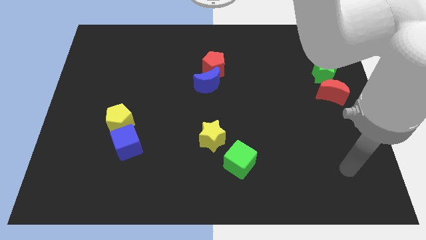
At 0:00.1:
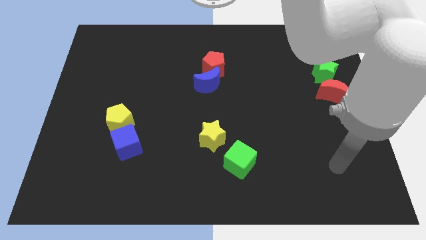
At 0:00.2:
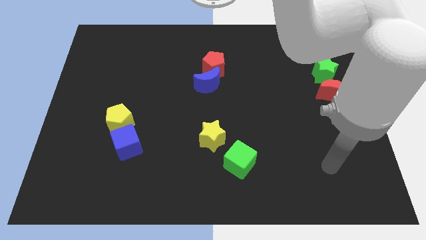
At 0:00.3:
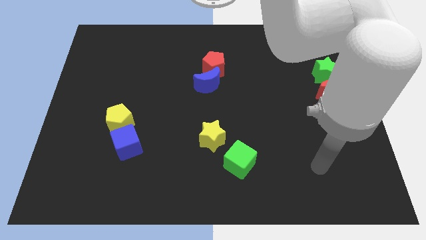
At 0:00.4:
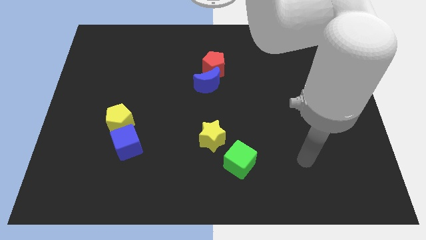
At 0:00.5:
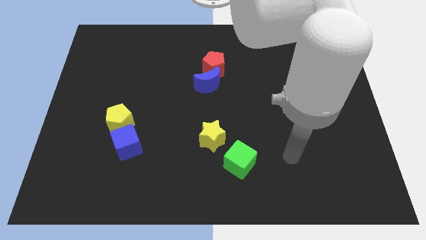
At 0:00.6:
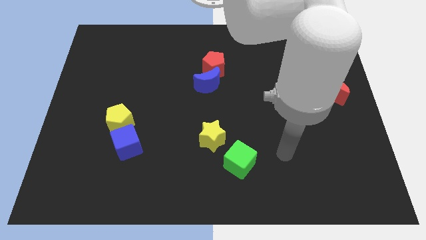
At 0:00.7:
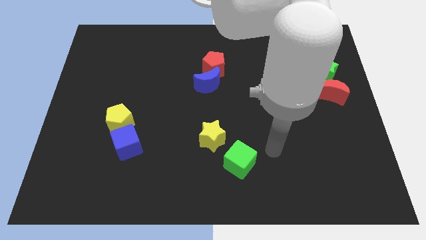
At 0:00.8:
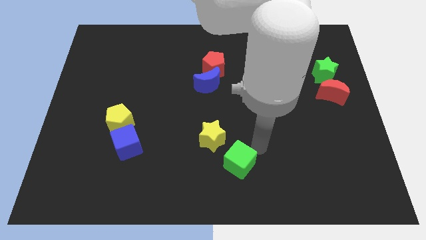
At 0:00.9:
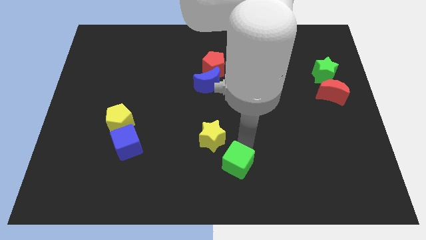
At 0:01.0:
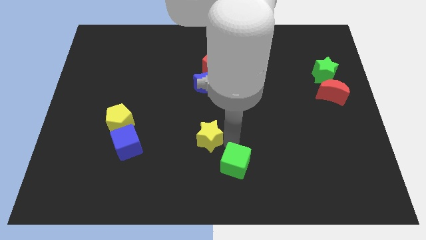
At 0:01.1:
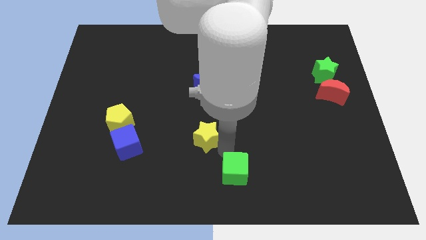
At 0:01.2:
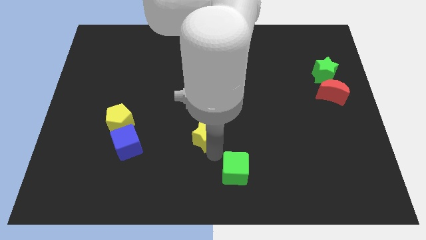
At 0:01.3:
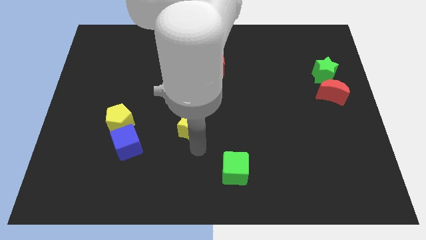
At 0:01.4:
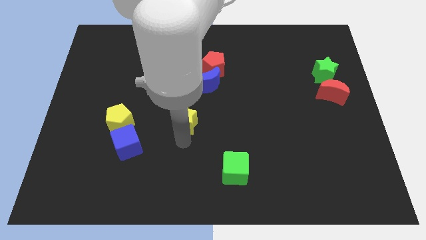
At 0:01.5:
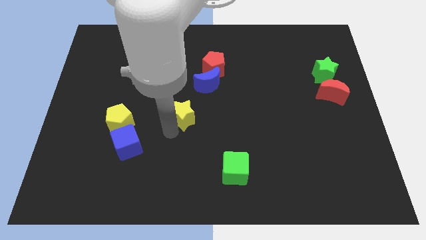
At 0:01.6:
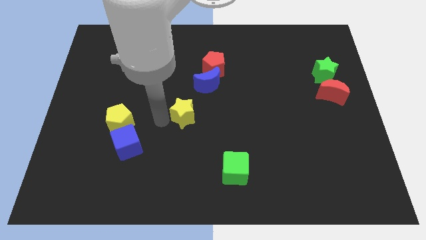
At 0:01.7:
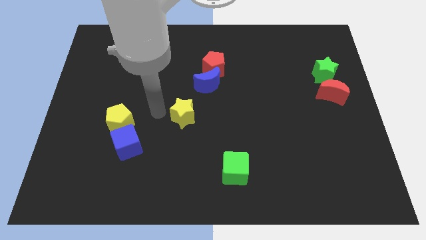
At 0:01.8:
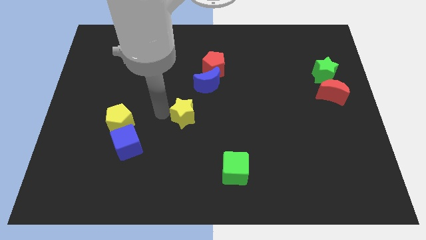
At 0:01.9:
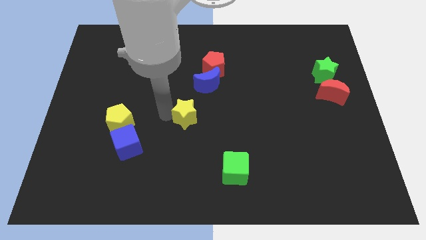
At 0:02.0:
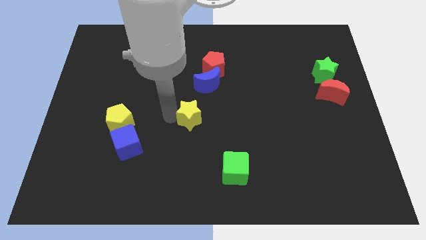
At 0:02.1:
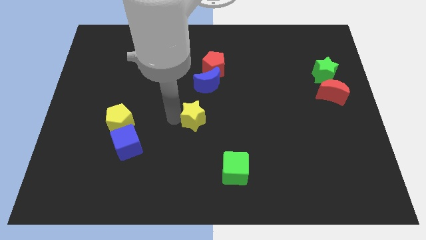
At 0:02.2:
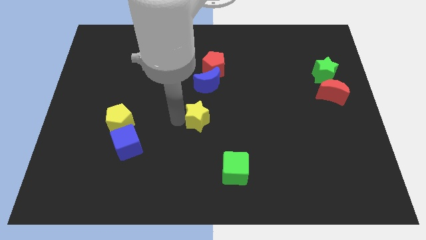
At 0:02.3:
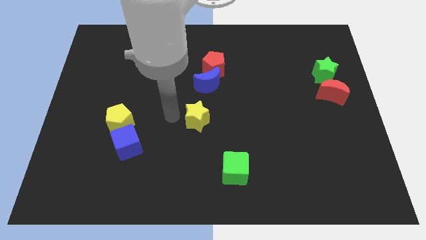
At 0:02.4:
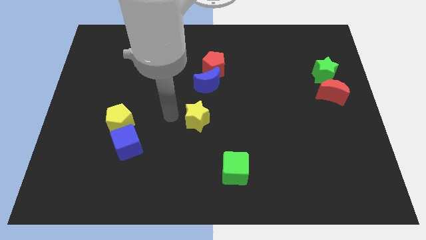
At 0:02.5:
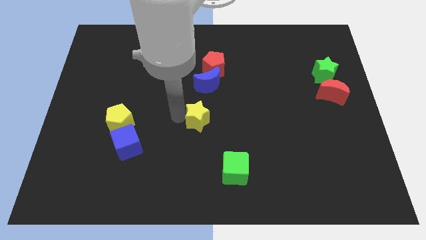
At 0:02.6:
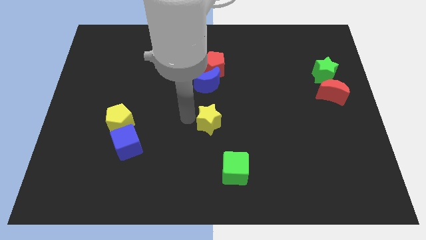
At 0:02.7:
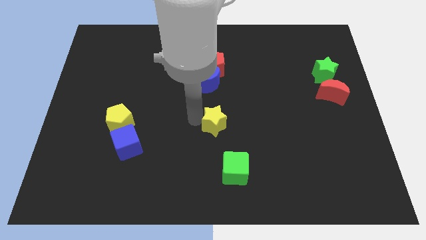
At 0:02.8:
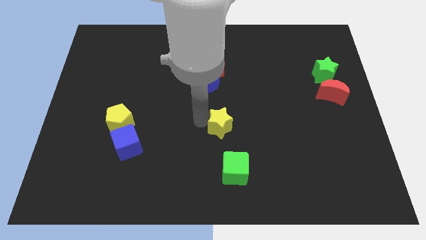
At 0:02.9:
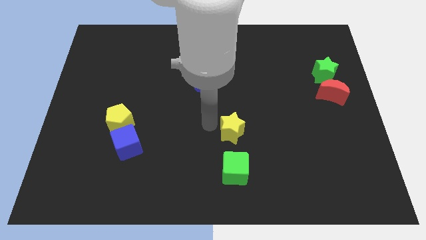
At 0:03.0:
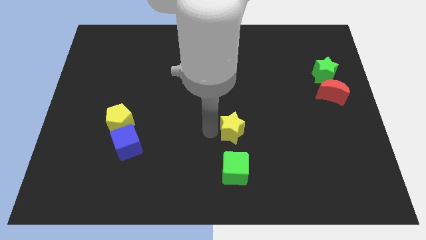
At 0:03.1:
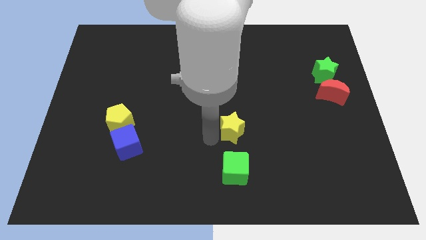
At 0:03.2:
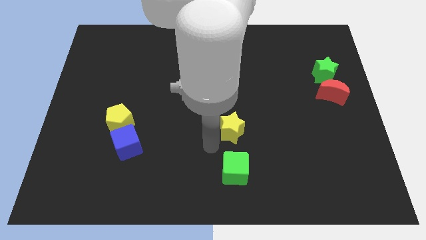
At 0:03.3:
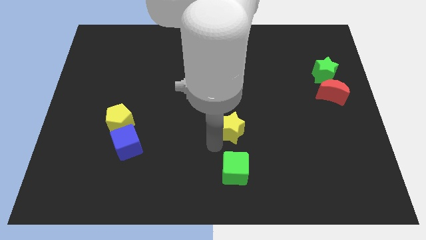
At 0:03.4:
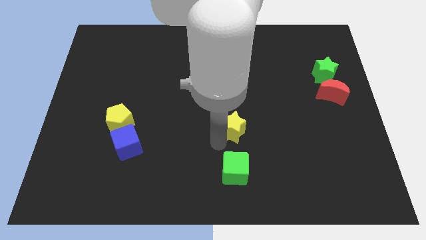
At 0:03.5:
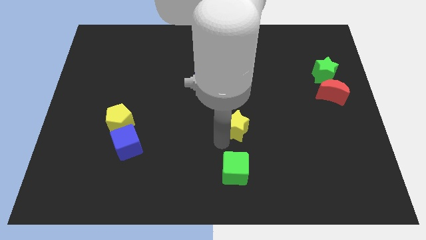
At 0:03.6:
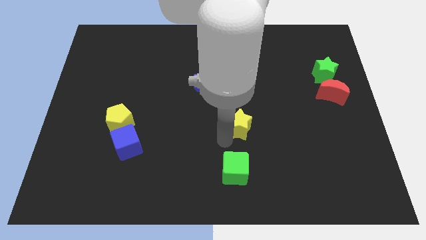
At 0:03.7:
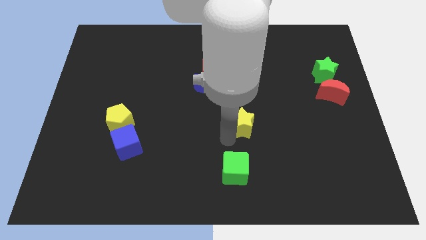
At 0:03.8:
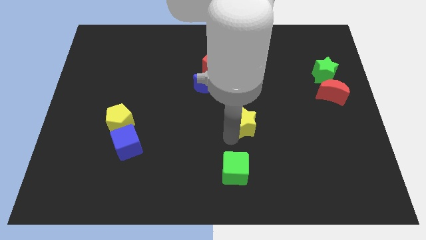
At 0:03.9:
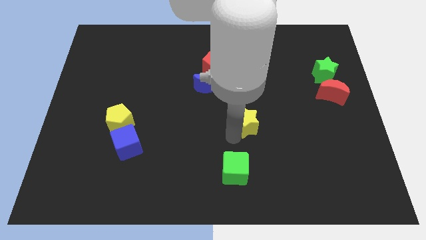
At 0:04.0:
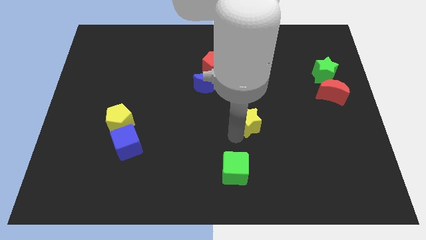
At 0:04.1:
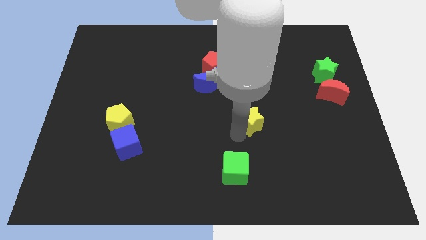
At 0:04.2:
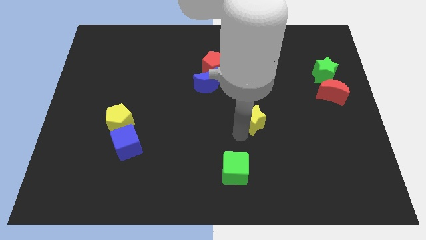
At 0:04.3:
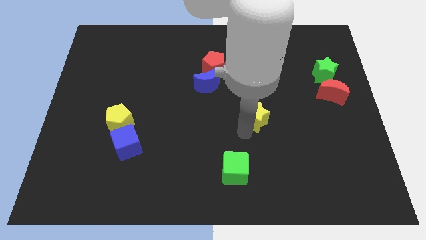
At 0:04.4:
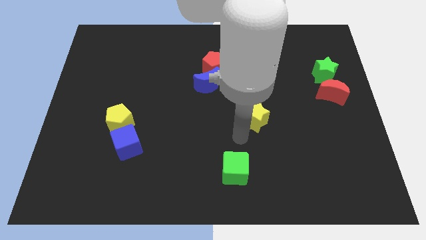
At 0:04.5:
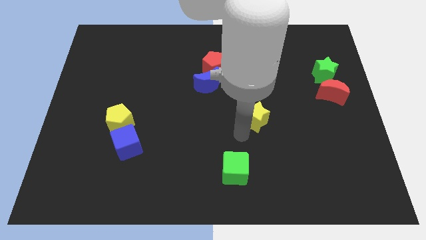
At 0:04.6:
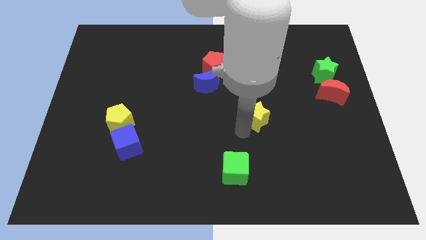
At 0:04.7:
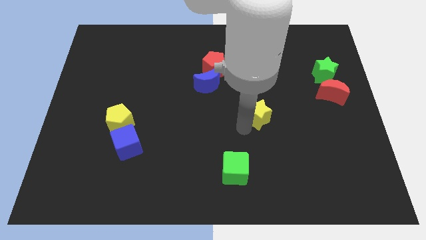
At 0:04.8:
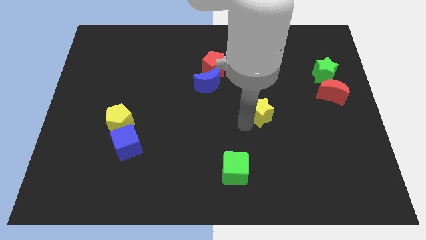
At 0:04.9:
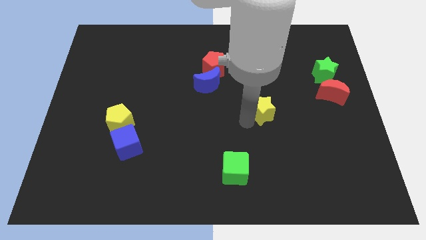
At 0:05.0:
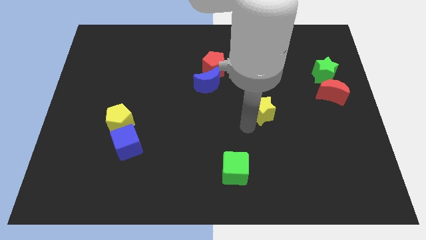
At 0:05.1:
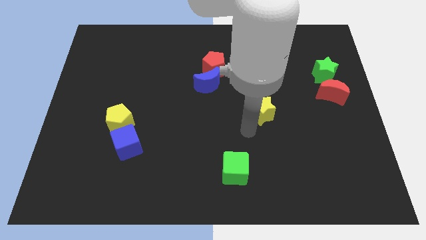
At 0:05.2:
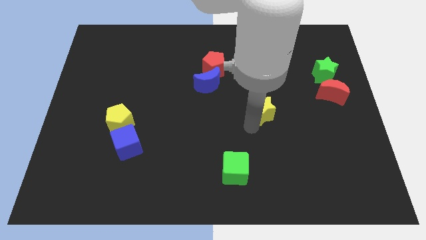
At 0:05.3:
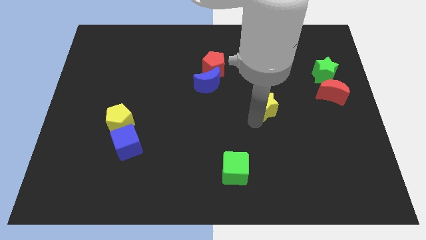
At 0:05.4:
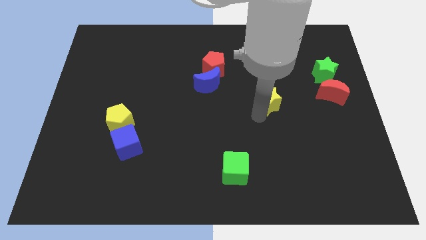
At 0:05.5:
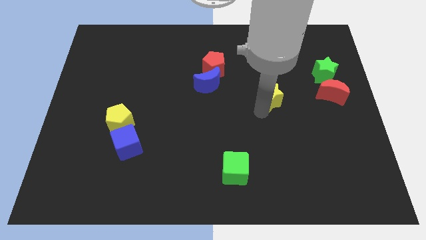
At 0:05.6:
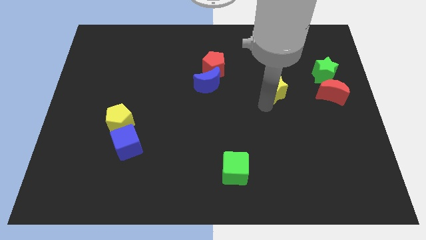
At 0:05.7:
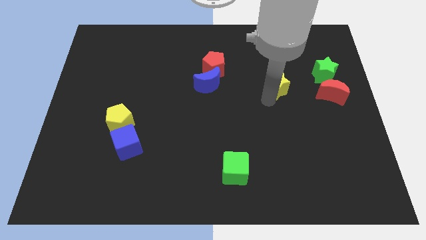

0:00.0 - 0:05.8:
slide the yellow star just left of the green star

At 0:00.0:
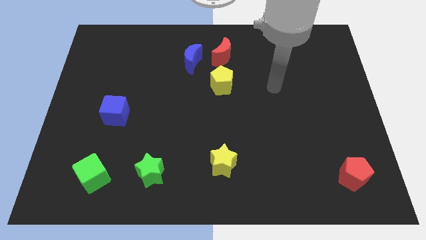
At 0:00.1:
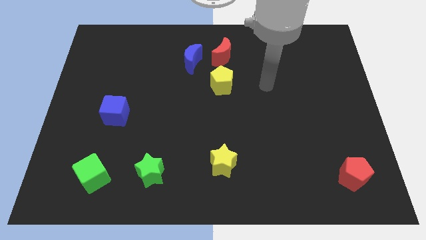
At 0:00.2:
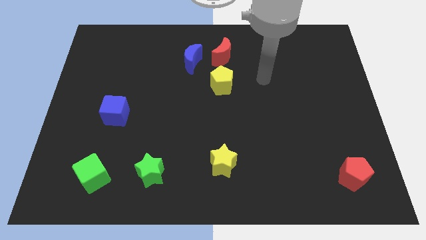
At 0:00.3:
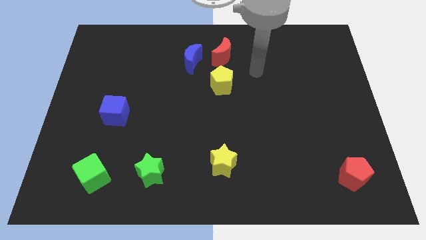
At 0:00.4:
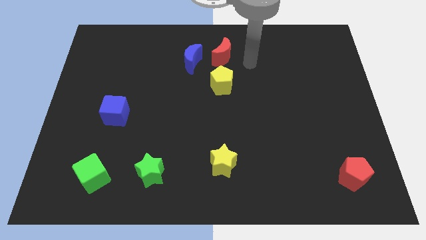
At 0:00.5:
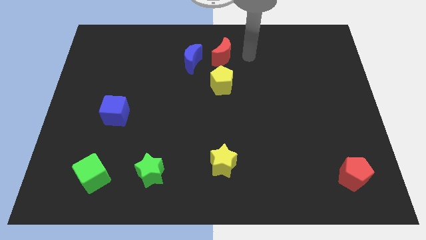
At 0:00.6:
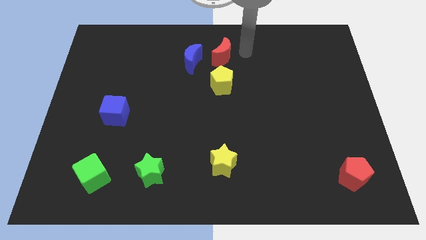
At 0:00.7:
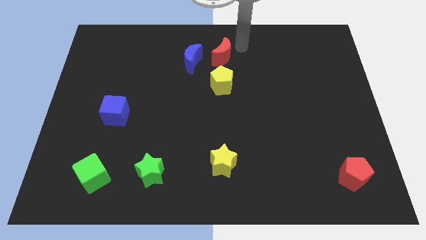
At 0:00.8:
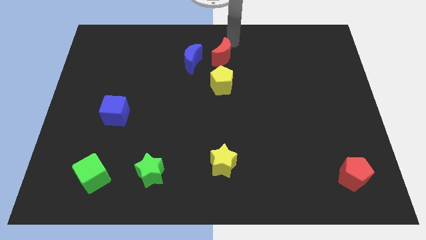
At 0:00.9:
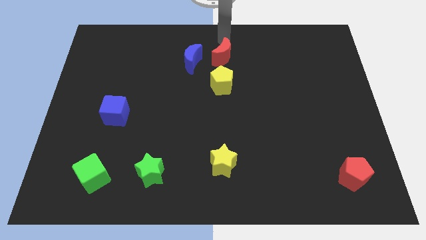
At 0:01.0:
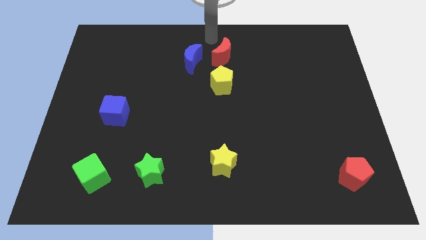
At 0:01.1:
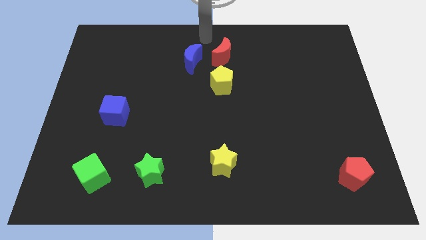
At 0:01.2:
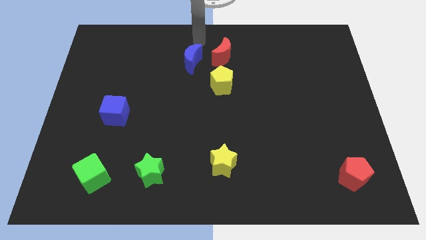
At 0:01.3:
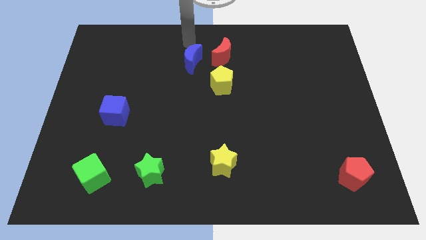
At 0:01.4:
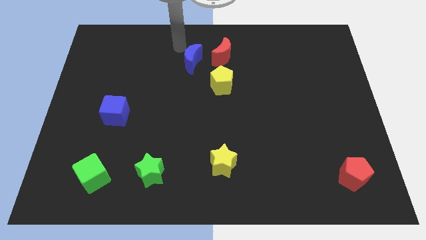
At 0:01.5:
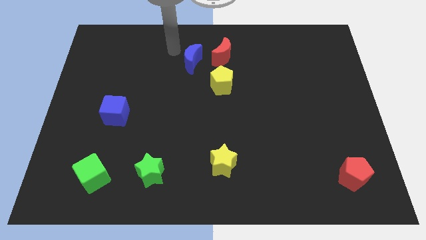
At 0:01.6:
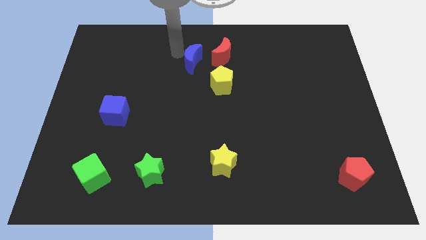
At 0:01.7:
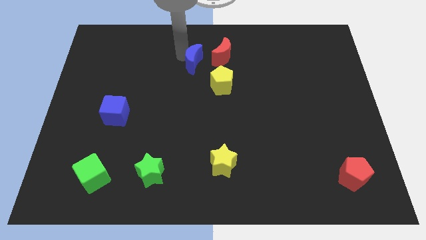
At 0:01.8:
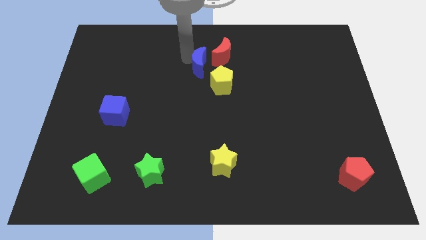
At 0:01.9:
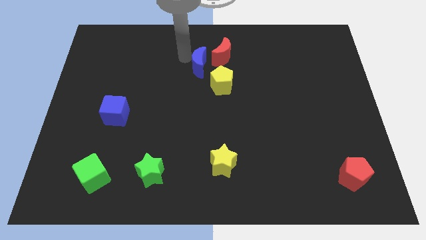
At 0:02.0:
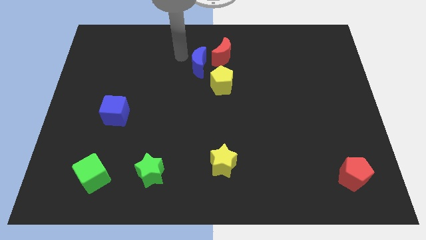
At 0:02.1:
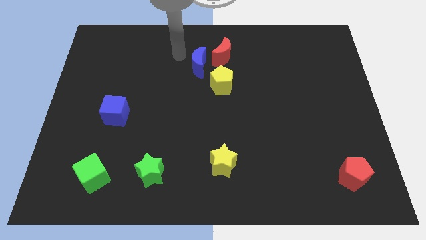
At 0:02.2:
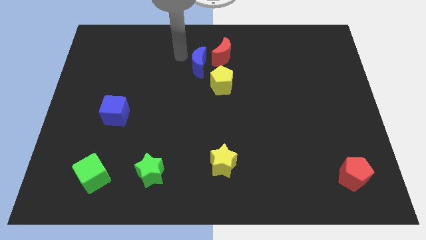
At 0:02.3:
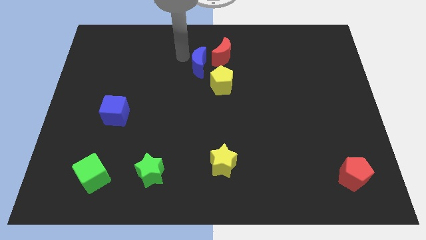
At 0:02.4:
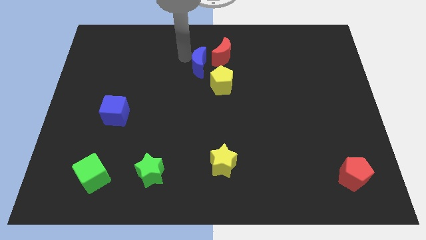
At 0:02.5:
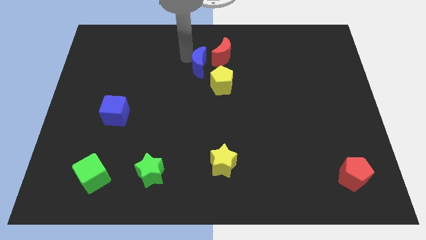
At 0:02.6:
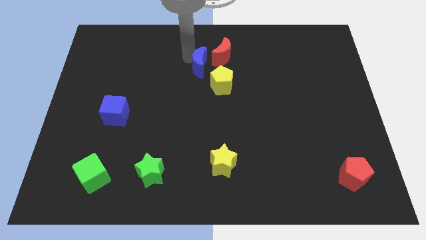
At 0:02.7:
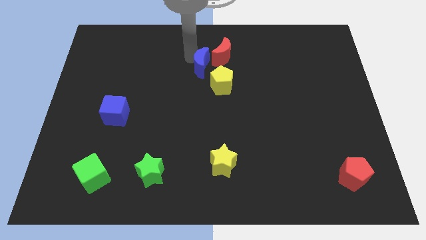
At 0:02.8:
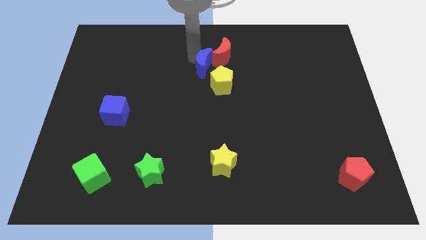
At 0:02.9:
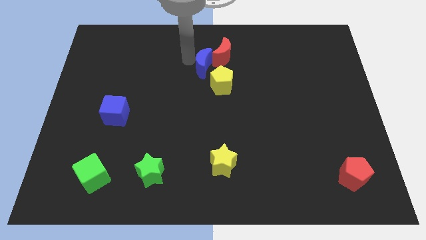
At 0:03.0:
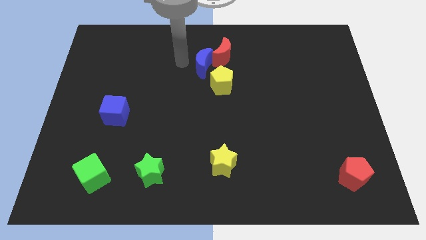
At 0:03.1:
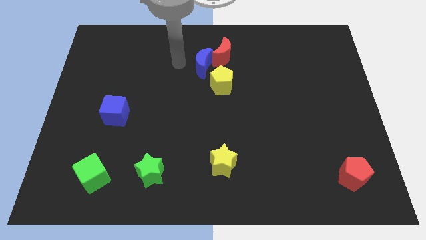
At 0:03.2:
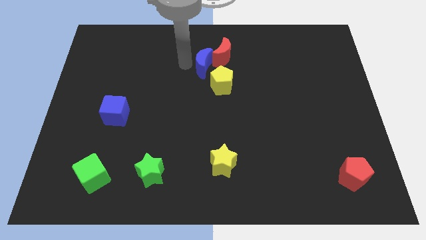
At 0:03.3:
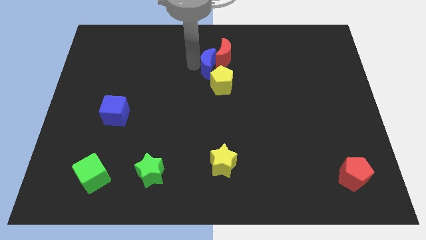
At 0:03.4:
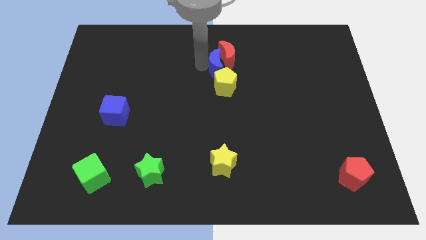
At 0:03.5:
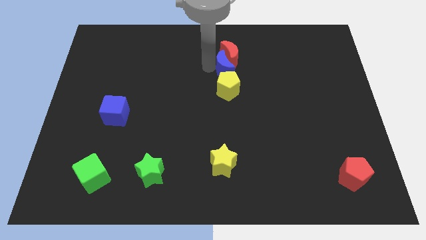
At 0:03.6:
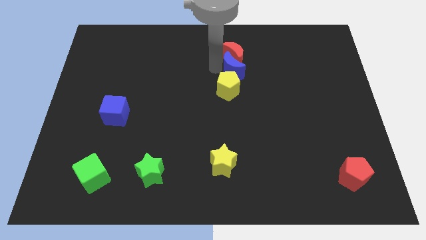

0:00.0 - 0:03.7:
push the blue moon to the top right side of the yellow pentagon
